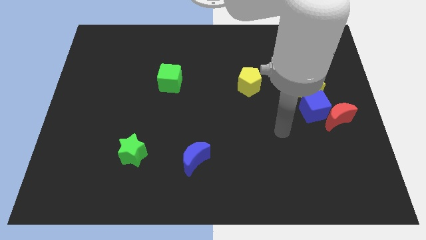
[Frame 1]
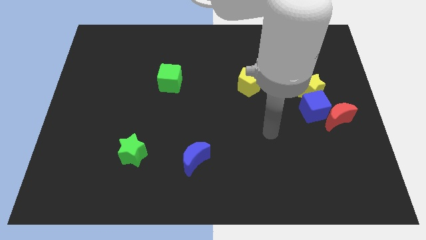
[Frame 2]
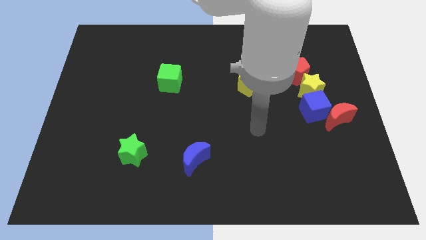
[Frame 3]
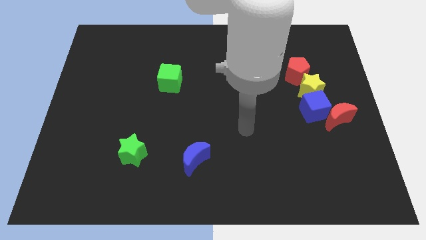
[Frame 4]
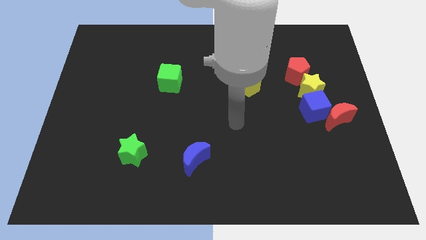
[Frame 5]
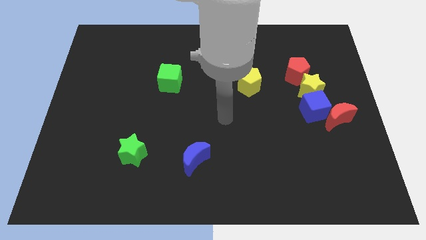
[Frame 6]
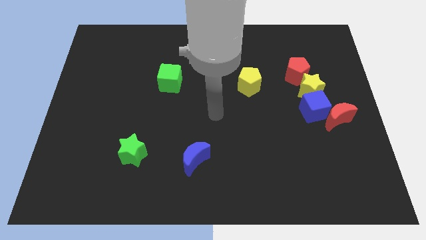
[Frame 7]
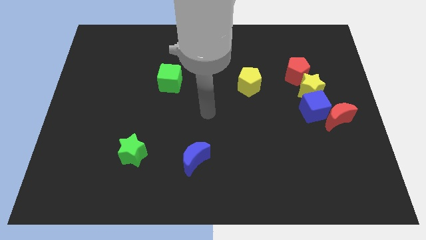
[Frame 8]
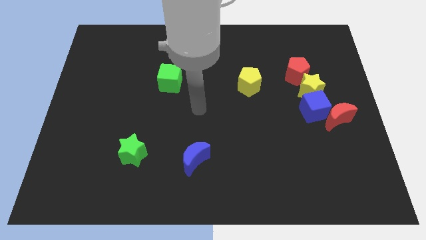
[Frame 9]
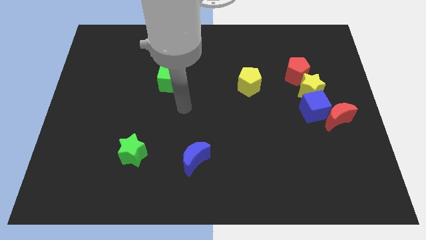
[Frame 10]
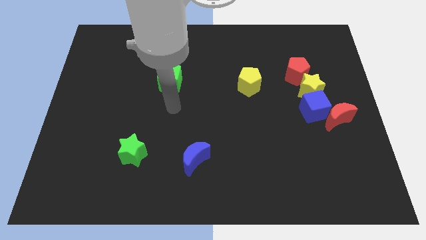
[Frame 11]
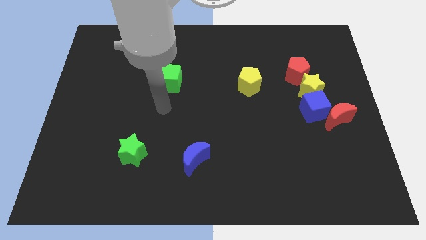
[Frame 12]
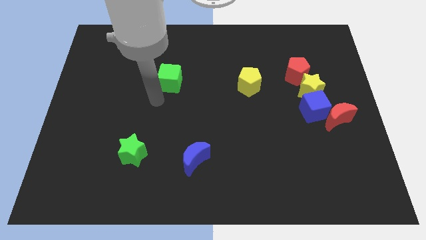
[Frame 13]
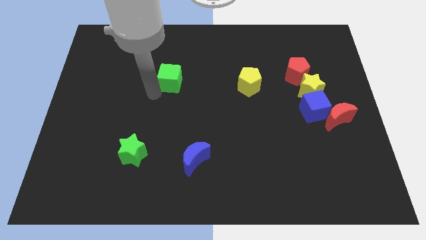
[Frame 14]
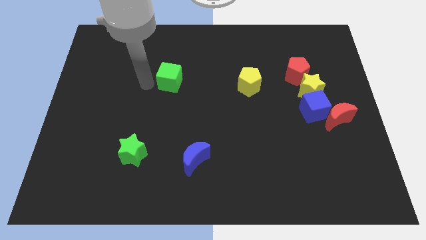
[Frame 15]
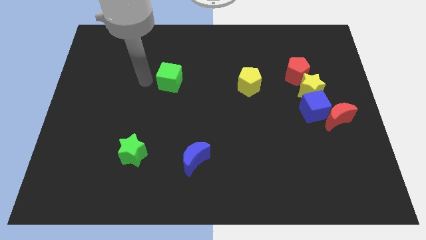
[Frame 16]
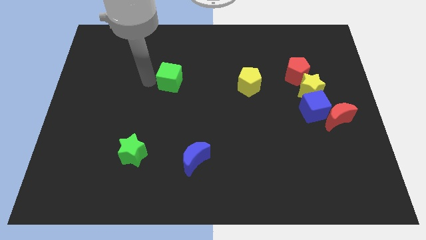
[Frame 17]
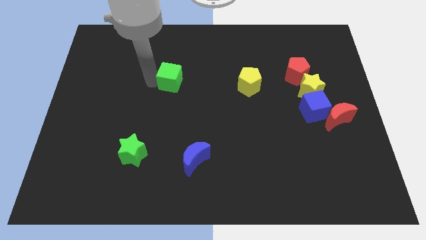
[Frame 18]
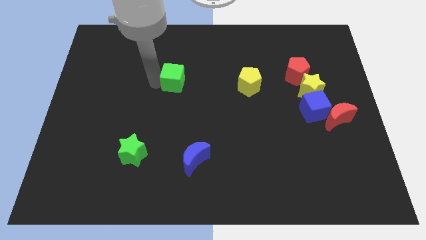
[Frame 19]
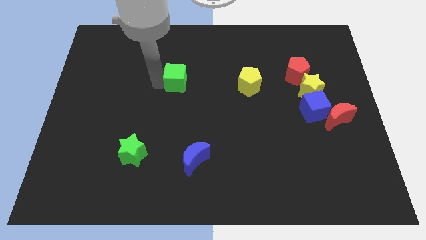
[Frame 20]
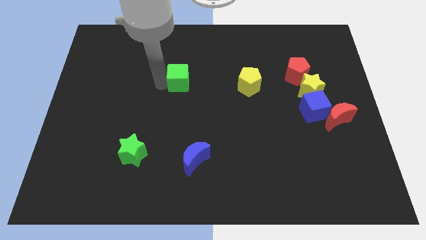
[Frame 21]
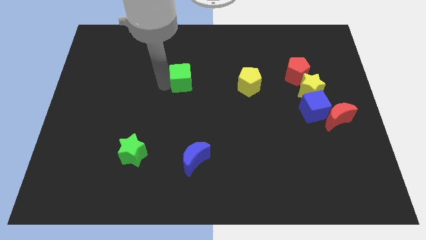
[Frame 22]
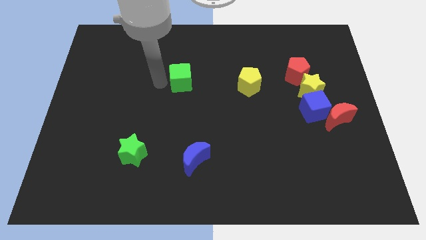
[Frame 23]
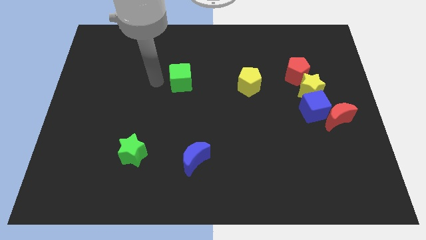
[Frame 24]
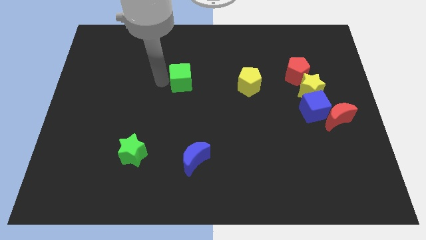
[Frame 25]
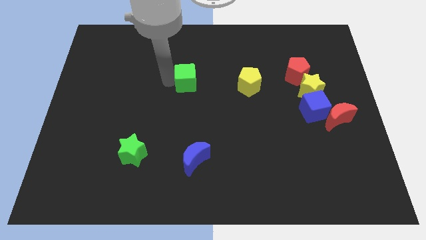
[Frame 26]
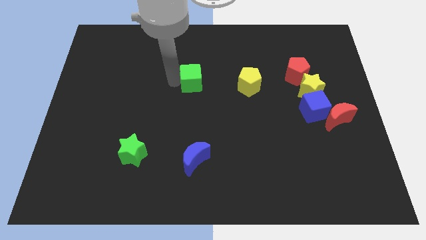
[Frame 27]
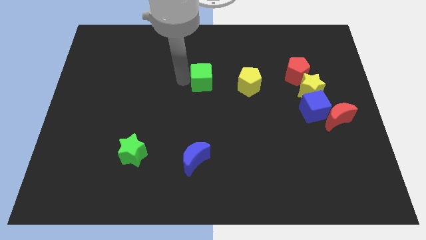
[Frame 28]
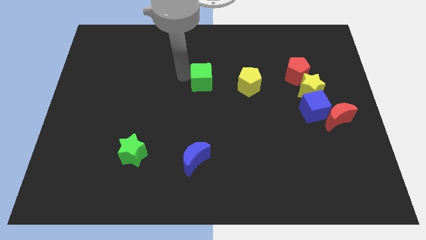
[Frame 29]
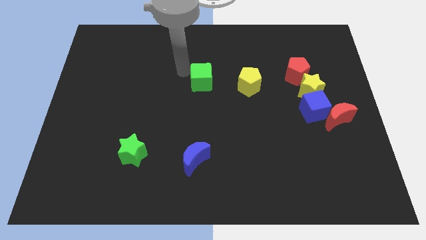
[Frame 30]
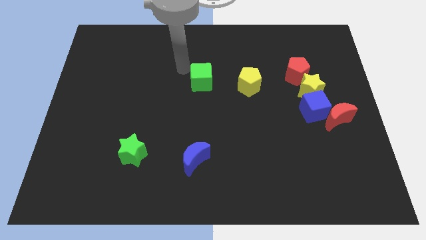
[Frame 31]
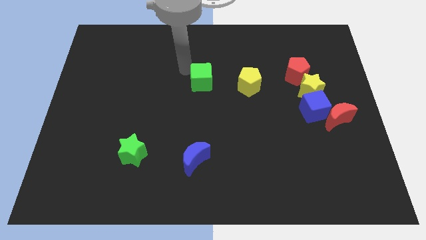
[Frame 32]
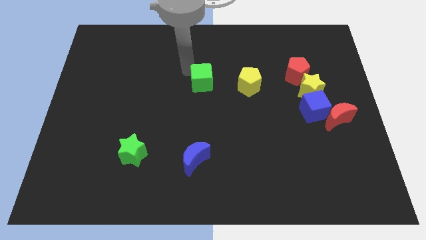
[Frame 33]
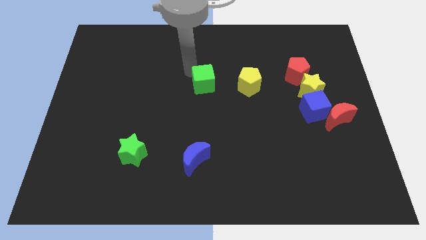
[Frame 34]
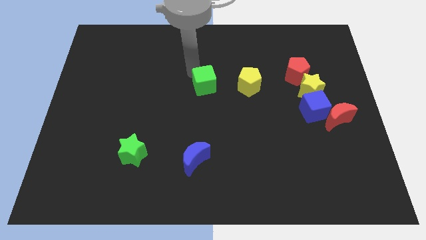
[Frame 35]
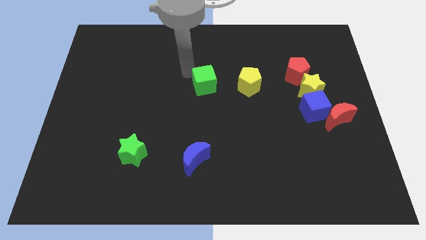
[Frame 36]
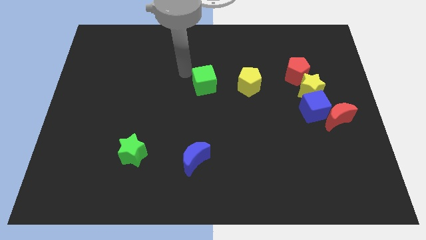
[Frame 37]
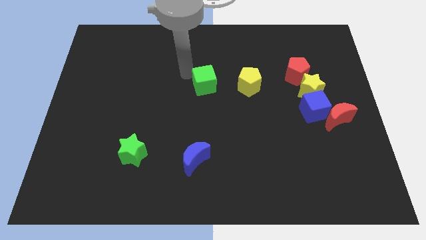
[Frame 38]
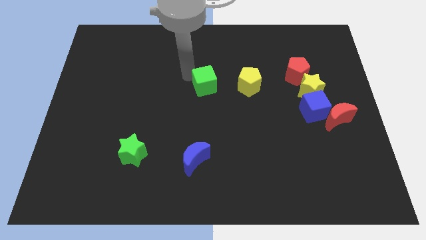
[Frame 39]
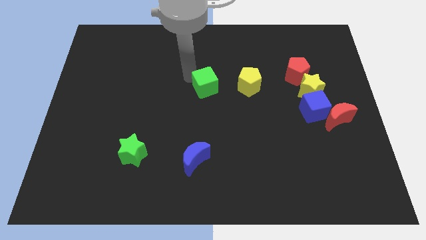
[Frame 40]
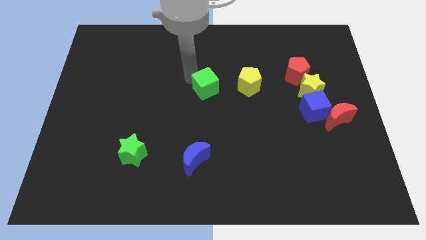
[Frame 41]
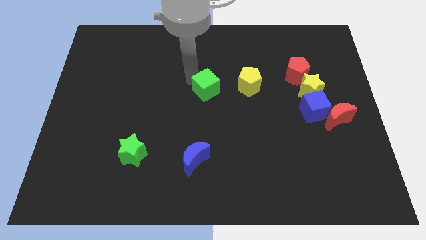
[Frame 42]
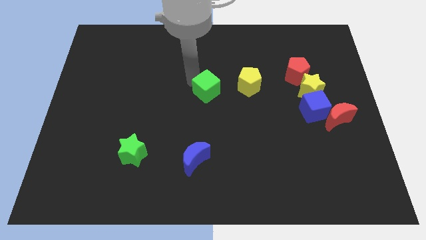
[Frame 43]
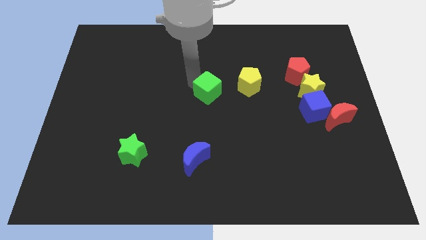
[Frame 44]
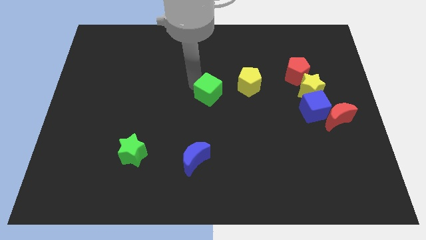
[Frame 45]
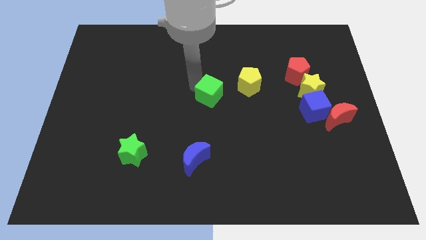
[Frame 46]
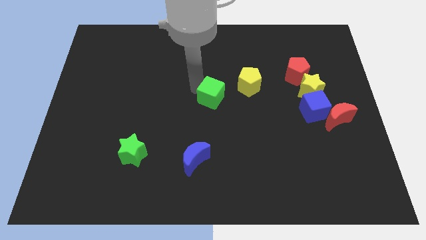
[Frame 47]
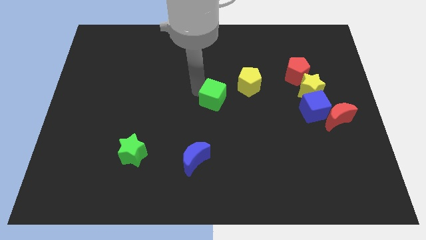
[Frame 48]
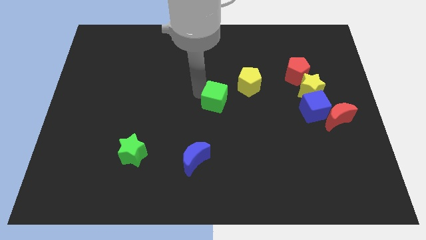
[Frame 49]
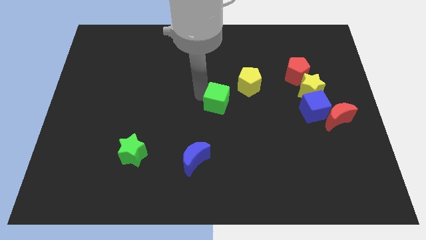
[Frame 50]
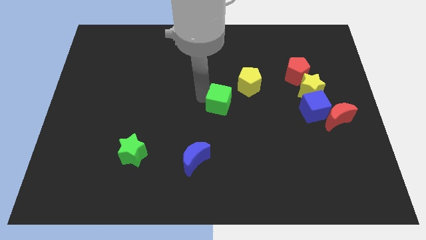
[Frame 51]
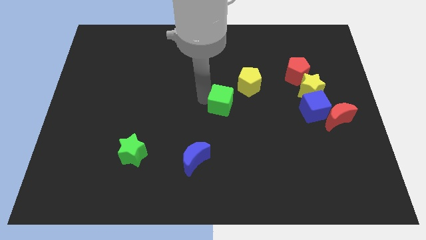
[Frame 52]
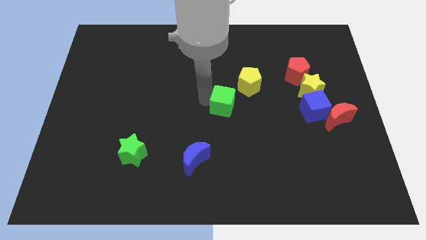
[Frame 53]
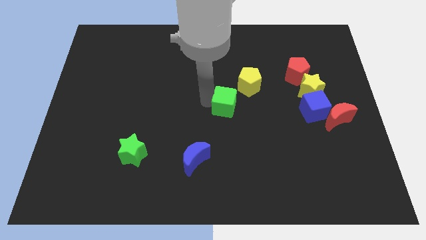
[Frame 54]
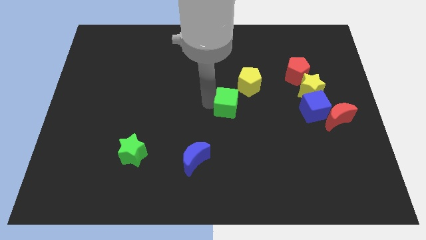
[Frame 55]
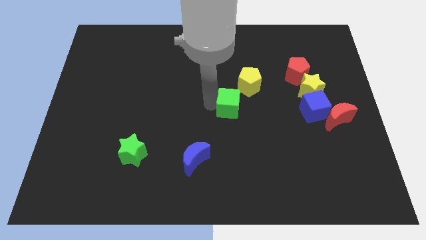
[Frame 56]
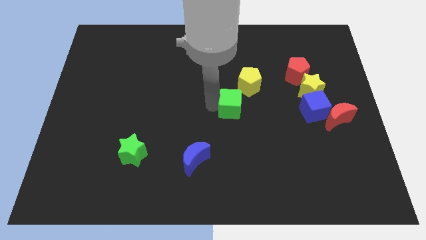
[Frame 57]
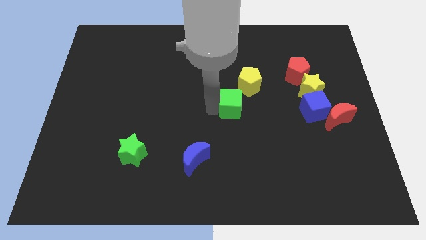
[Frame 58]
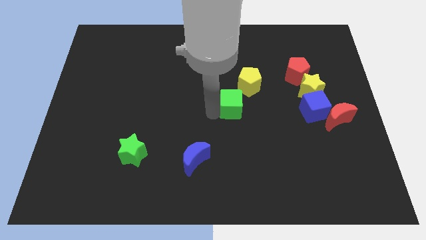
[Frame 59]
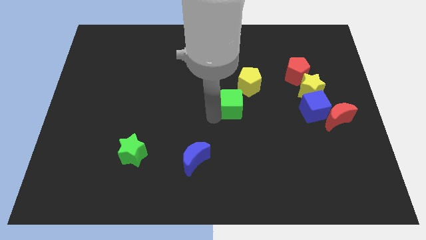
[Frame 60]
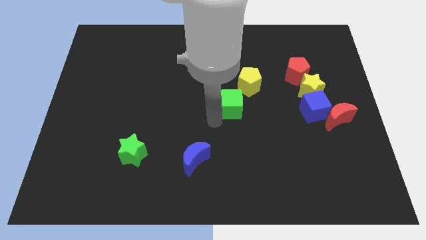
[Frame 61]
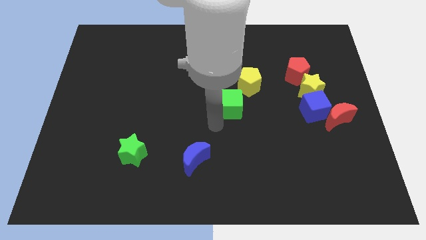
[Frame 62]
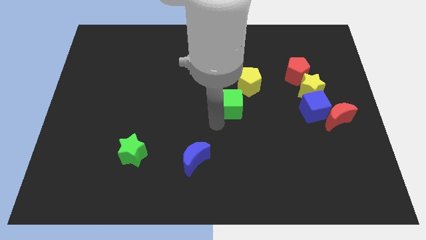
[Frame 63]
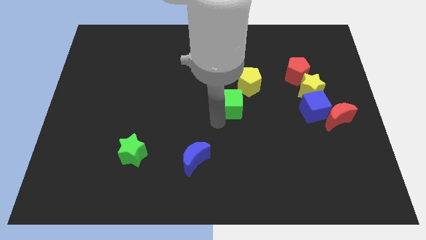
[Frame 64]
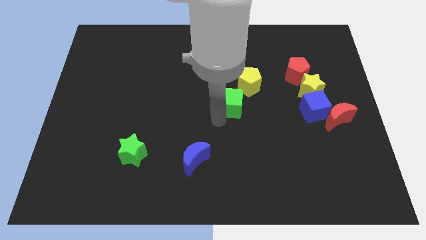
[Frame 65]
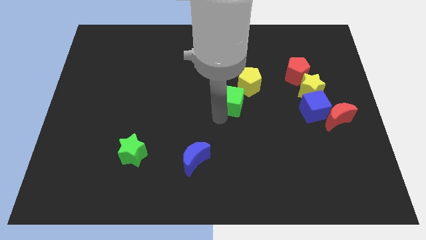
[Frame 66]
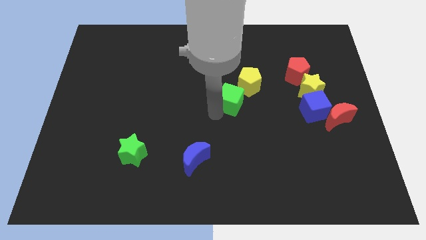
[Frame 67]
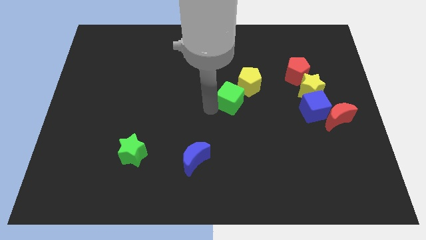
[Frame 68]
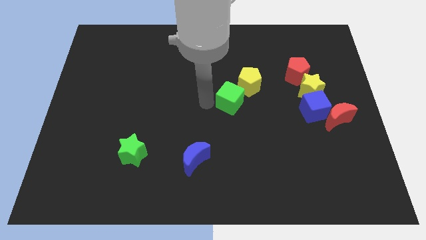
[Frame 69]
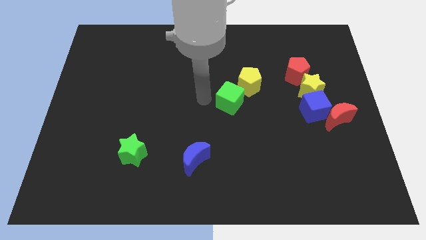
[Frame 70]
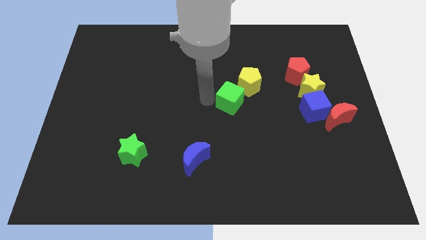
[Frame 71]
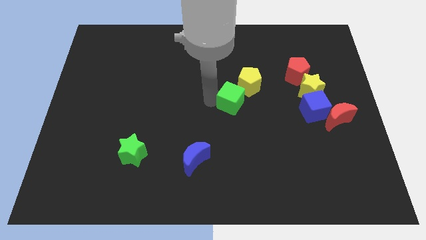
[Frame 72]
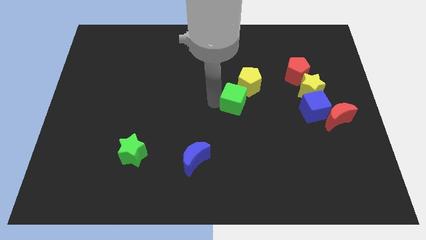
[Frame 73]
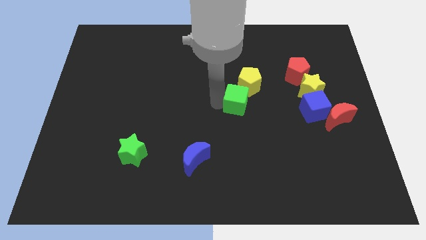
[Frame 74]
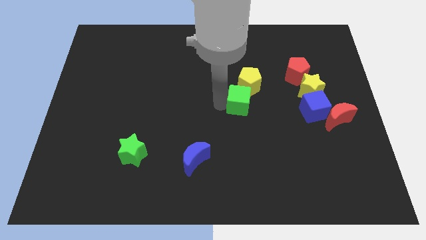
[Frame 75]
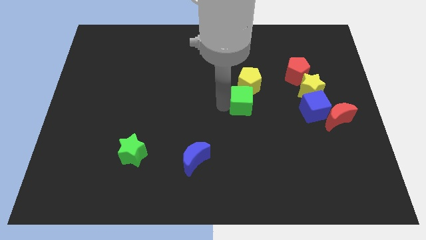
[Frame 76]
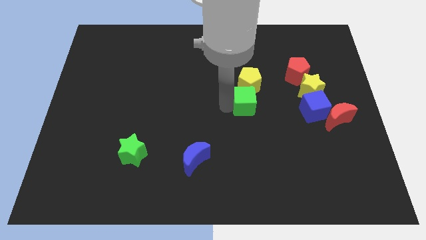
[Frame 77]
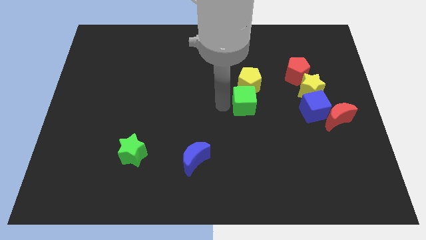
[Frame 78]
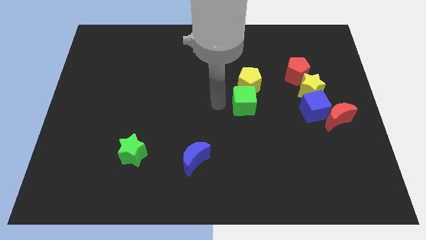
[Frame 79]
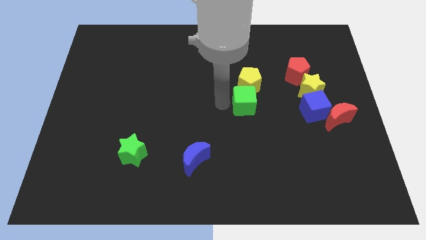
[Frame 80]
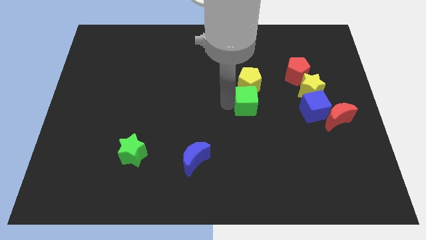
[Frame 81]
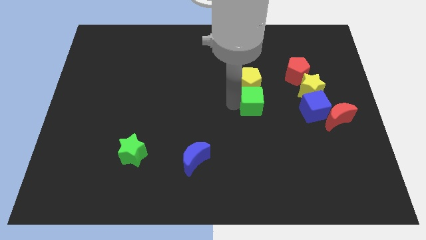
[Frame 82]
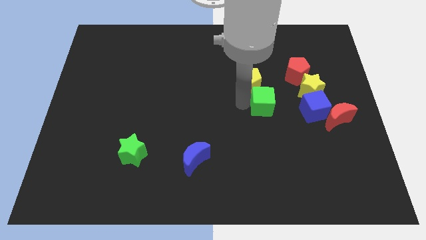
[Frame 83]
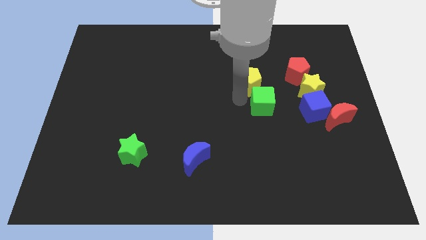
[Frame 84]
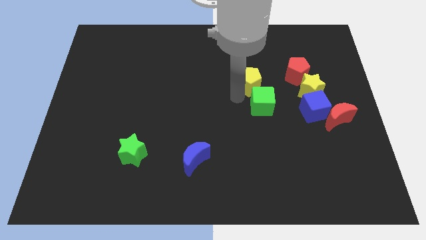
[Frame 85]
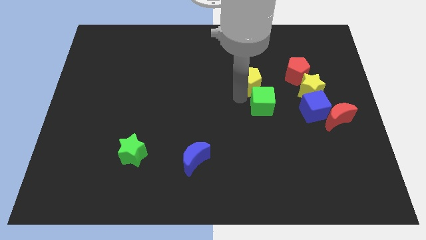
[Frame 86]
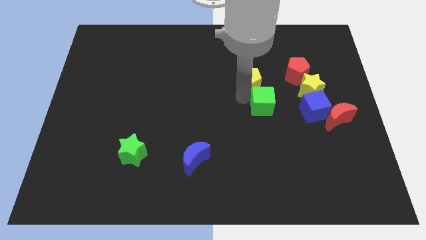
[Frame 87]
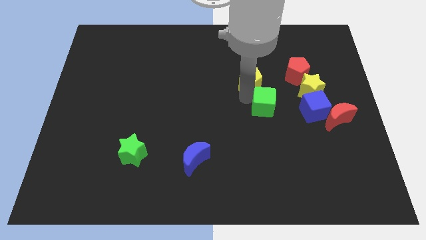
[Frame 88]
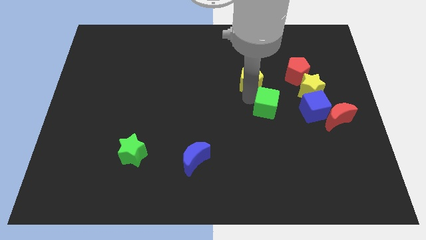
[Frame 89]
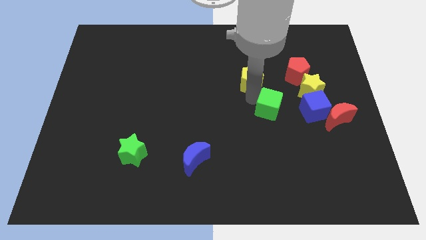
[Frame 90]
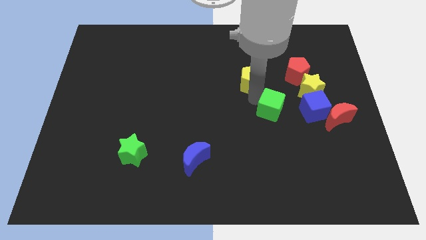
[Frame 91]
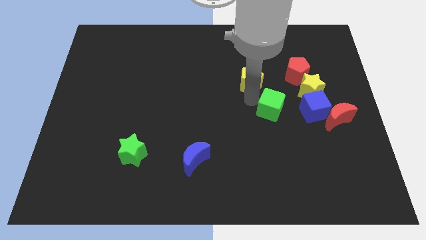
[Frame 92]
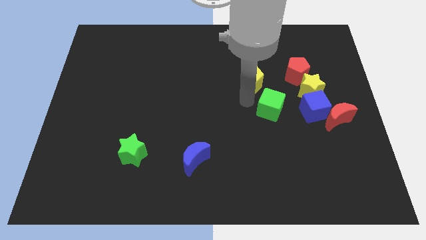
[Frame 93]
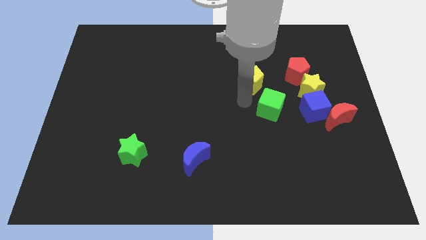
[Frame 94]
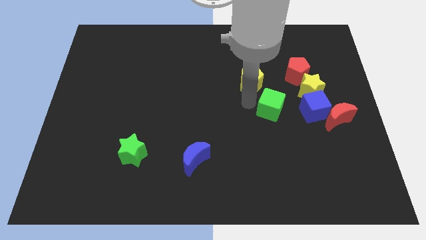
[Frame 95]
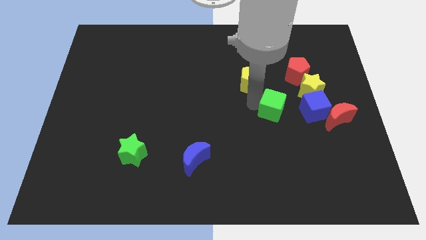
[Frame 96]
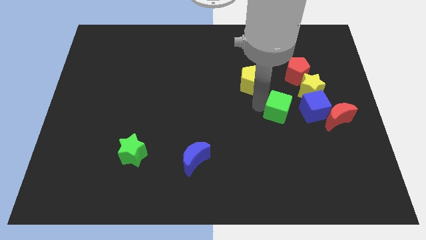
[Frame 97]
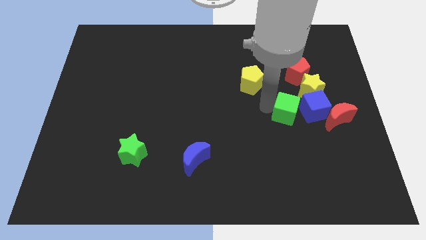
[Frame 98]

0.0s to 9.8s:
put the green cube to the bottom side of the red pentagon
